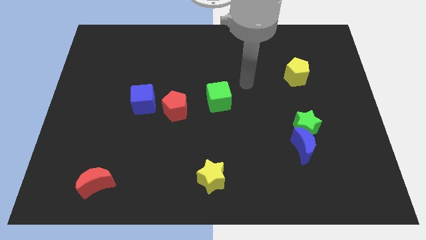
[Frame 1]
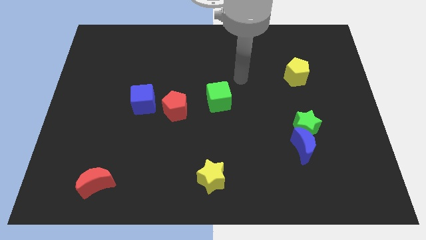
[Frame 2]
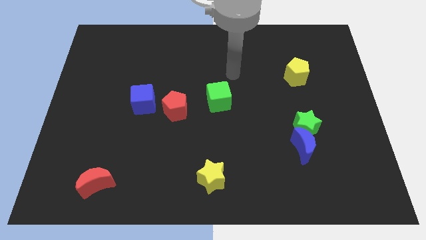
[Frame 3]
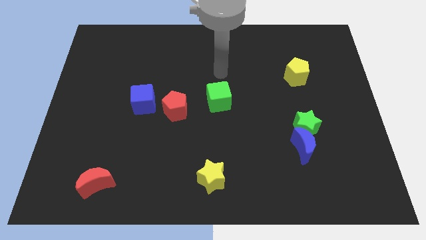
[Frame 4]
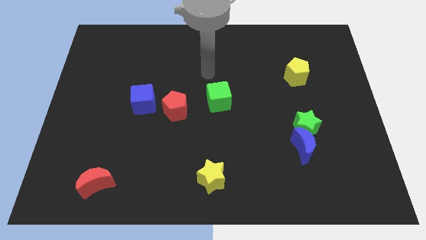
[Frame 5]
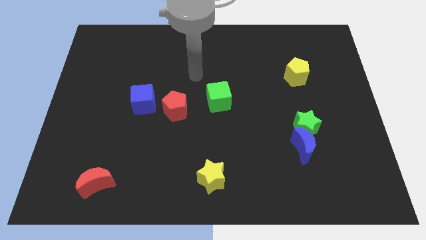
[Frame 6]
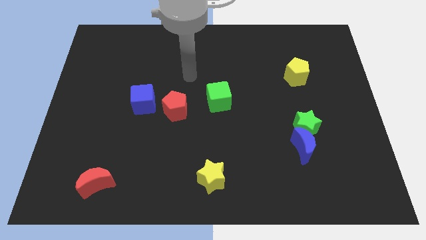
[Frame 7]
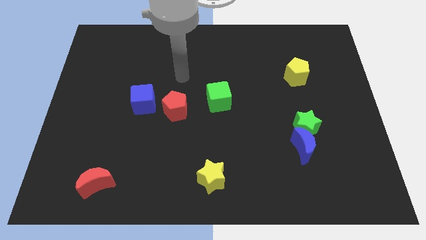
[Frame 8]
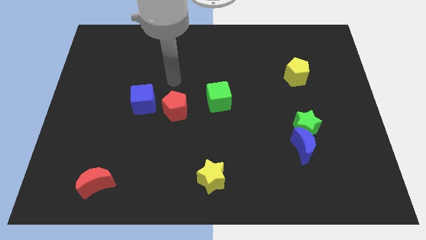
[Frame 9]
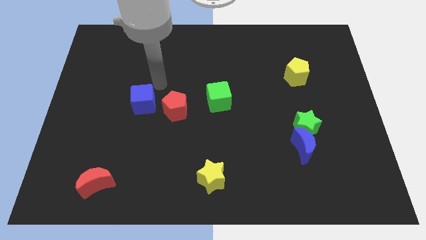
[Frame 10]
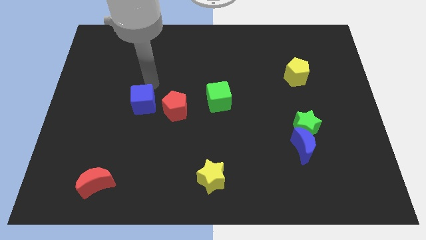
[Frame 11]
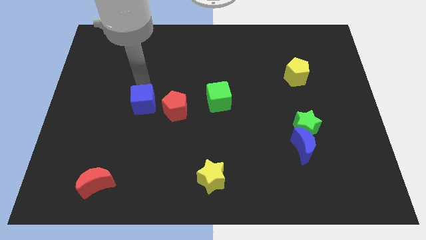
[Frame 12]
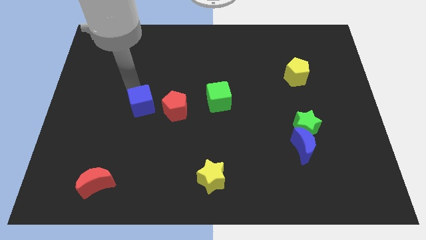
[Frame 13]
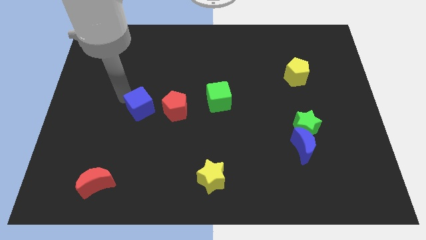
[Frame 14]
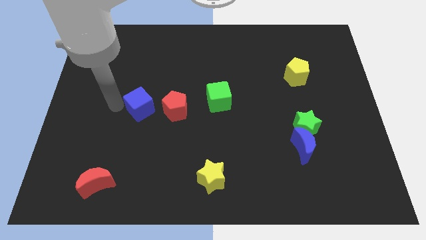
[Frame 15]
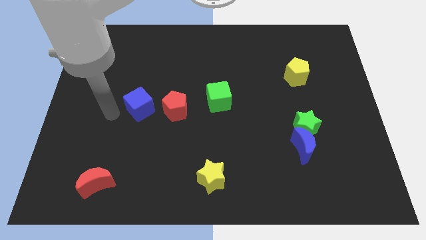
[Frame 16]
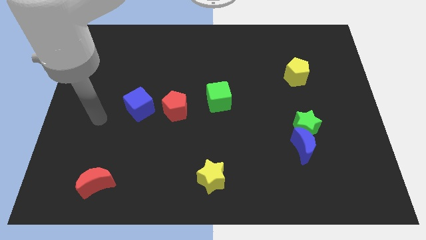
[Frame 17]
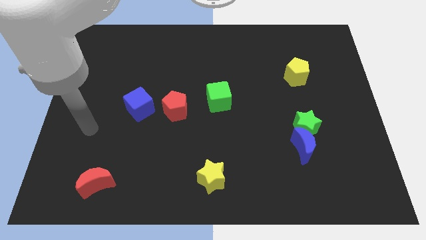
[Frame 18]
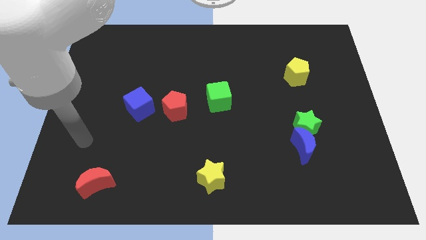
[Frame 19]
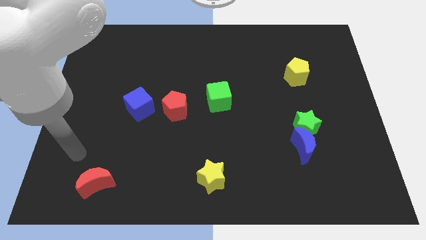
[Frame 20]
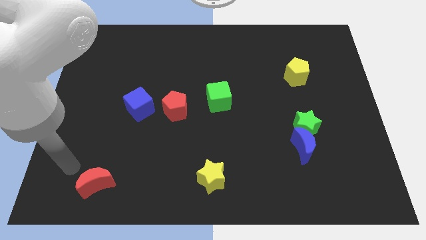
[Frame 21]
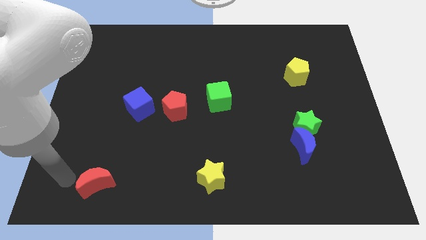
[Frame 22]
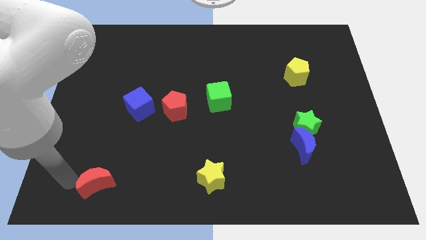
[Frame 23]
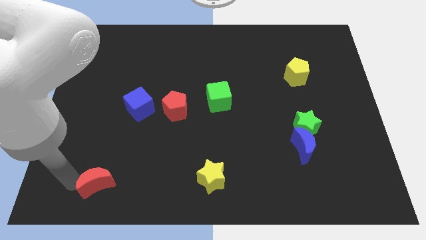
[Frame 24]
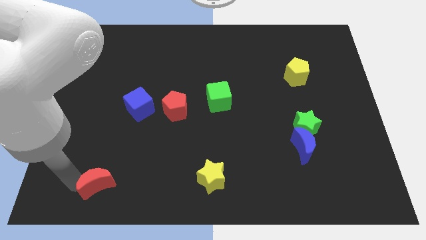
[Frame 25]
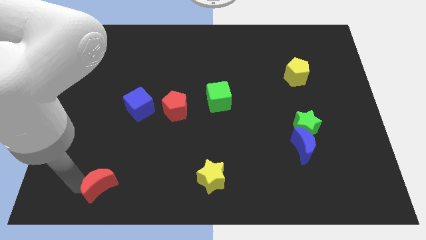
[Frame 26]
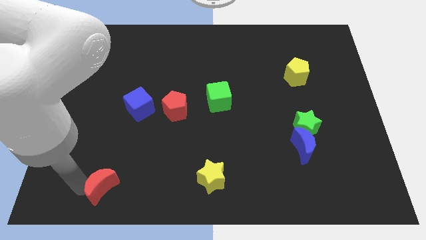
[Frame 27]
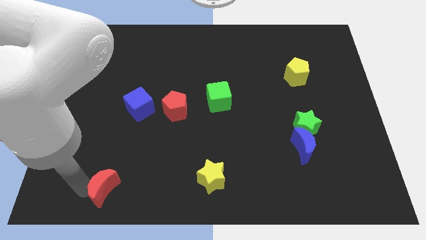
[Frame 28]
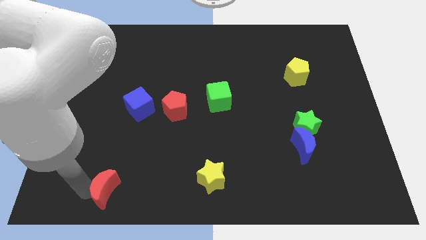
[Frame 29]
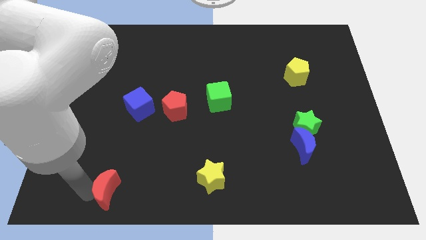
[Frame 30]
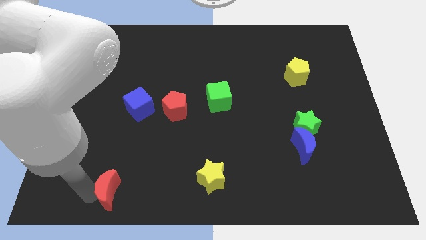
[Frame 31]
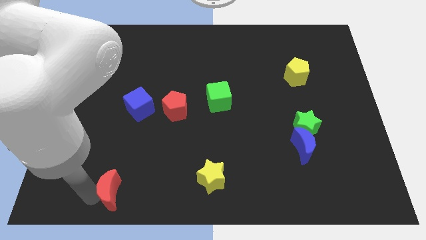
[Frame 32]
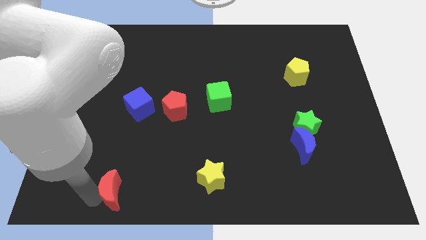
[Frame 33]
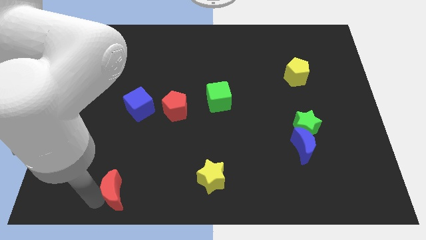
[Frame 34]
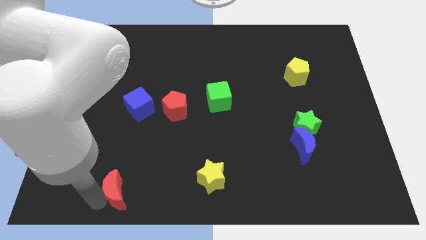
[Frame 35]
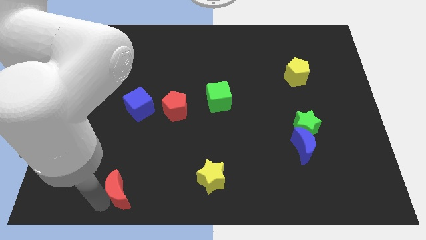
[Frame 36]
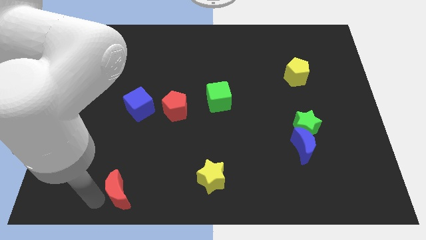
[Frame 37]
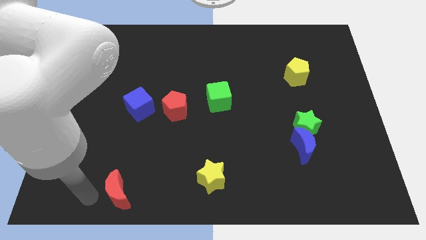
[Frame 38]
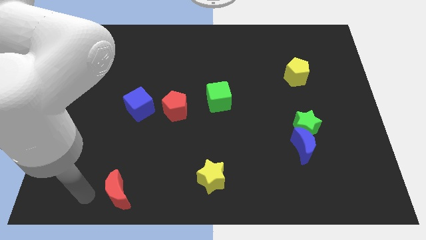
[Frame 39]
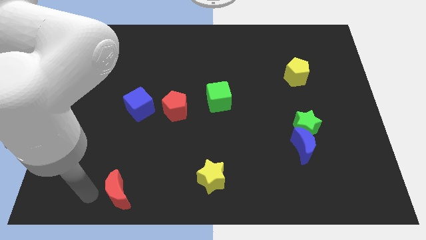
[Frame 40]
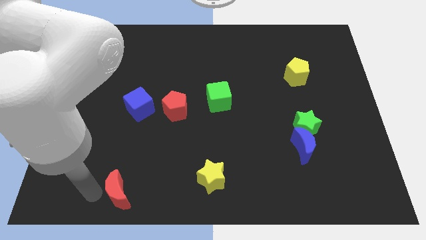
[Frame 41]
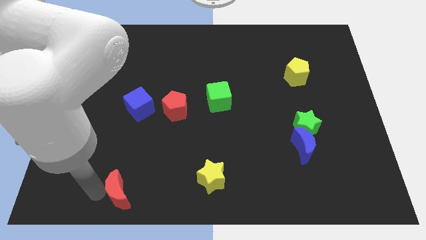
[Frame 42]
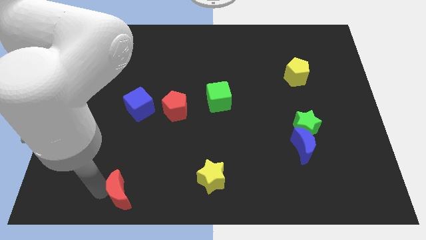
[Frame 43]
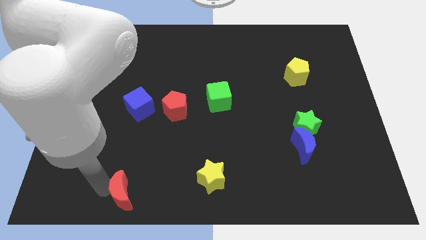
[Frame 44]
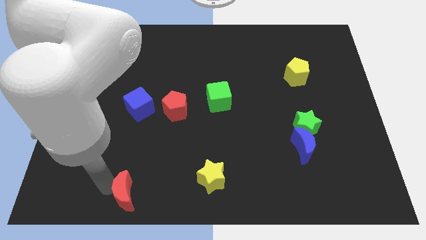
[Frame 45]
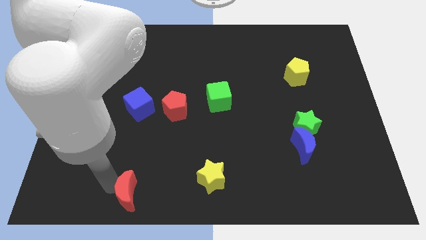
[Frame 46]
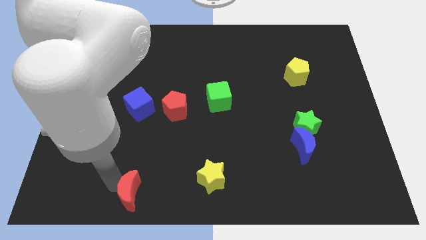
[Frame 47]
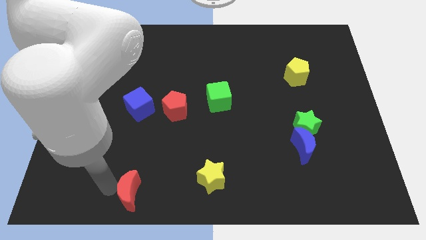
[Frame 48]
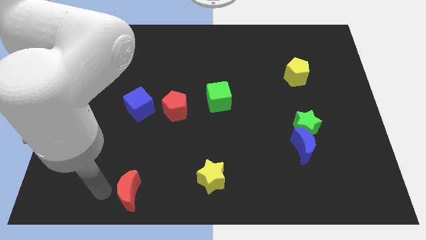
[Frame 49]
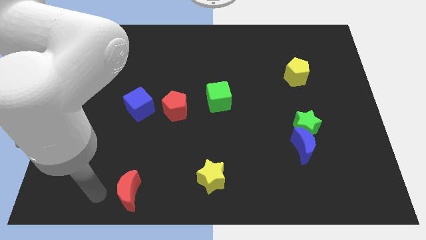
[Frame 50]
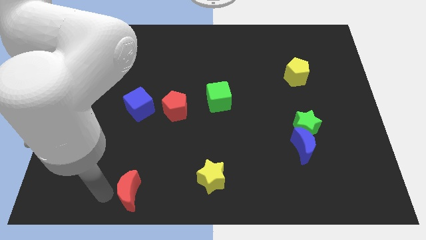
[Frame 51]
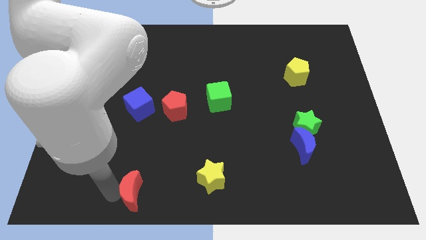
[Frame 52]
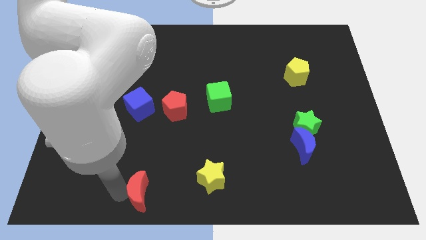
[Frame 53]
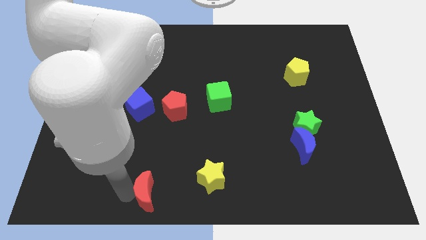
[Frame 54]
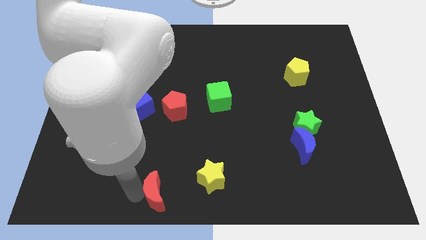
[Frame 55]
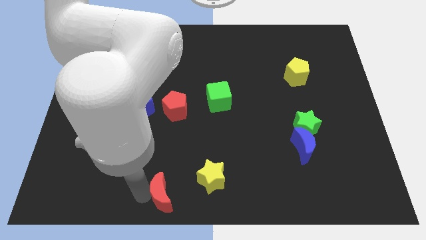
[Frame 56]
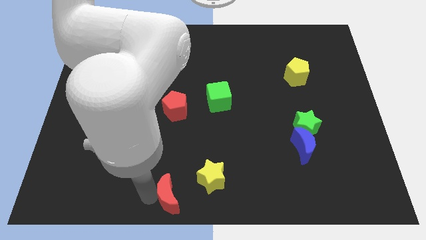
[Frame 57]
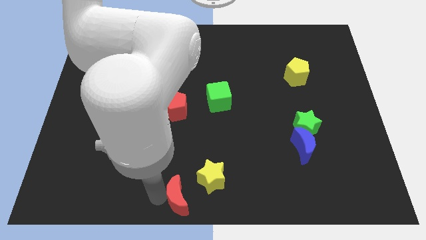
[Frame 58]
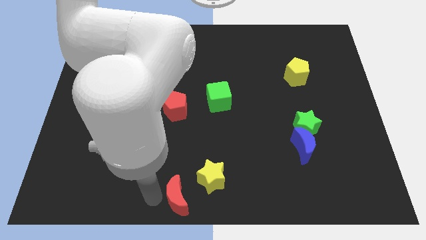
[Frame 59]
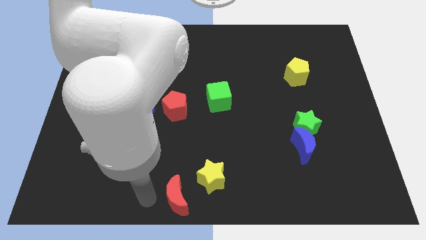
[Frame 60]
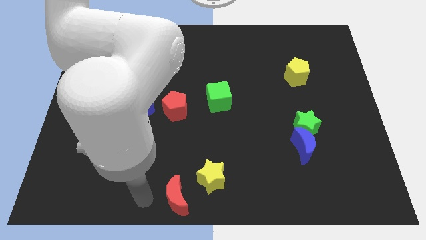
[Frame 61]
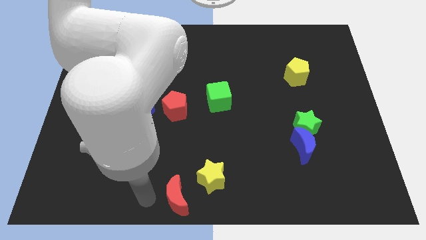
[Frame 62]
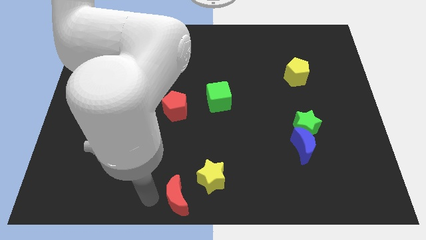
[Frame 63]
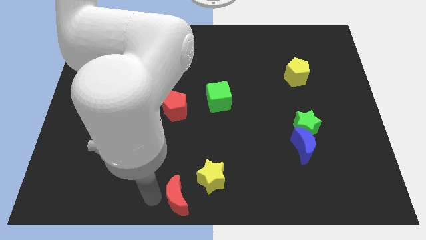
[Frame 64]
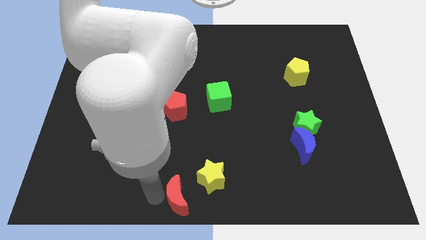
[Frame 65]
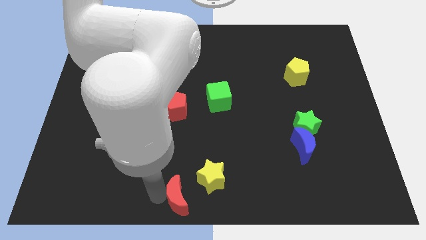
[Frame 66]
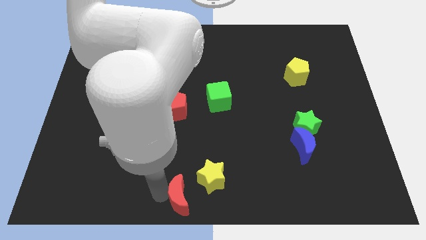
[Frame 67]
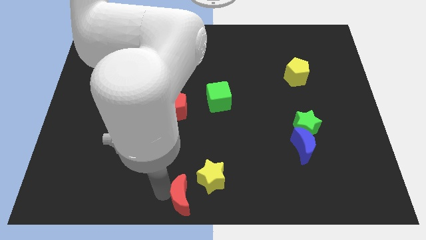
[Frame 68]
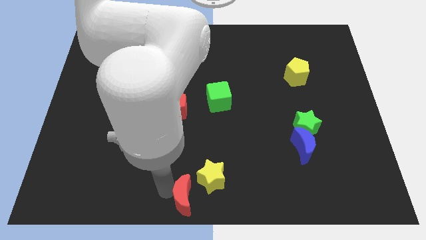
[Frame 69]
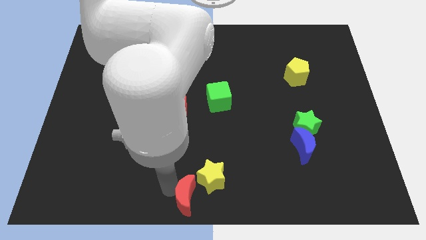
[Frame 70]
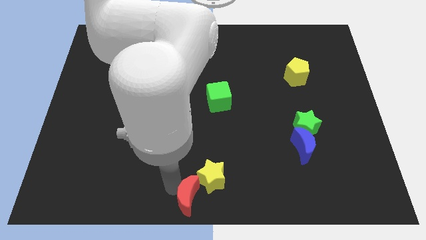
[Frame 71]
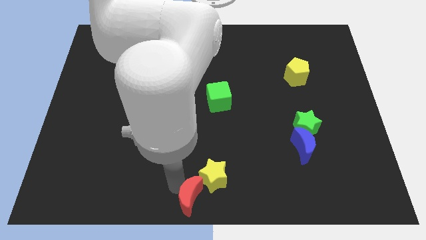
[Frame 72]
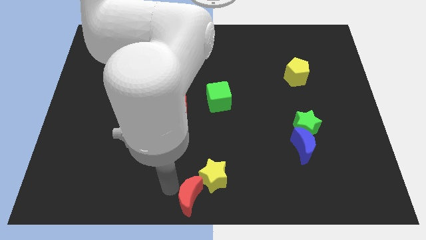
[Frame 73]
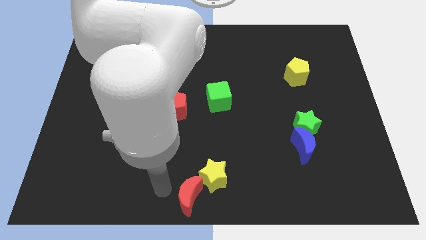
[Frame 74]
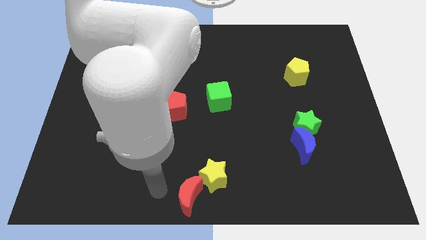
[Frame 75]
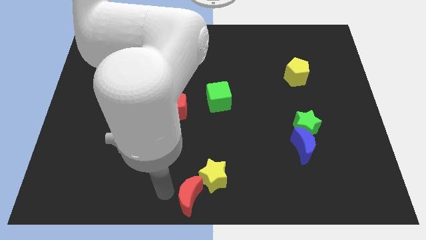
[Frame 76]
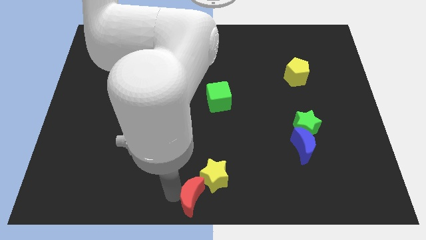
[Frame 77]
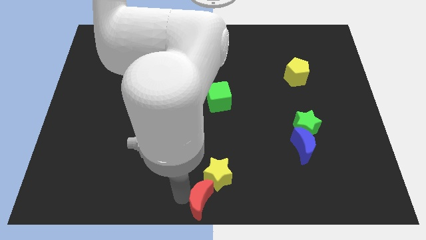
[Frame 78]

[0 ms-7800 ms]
push the red moon to the right

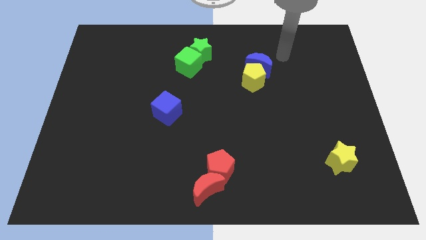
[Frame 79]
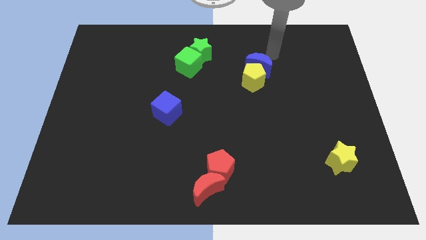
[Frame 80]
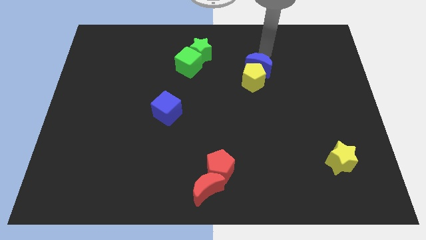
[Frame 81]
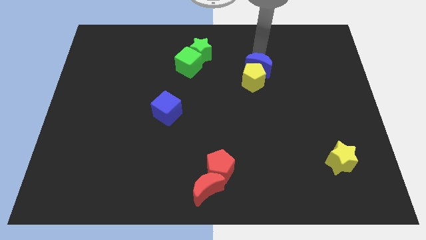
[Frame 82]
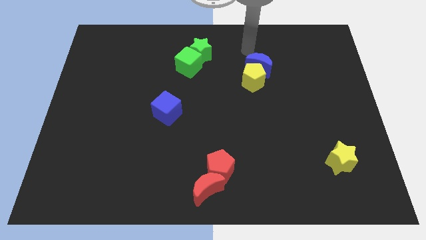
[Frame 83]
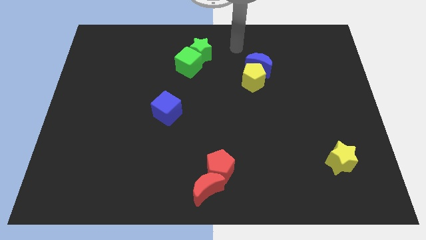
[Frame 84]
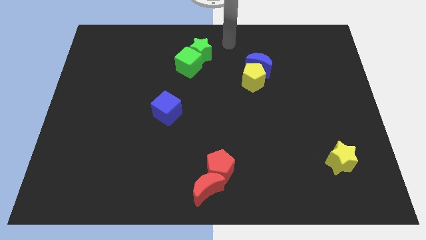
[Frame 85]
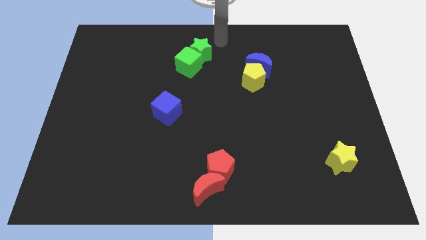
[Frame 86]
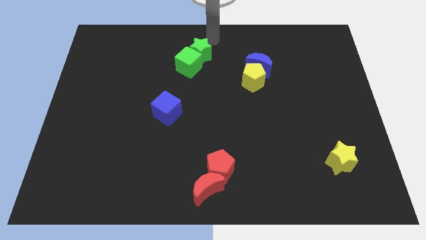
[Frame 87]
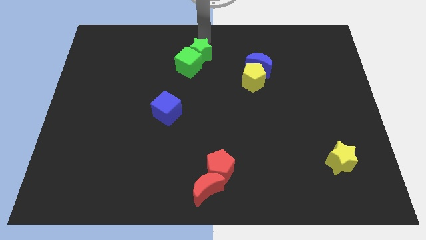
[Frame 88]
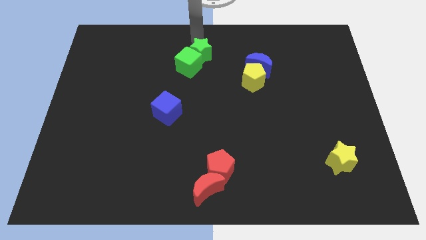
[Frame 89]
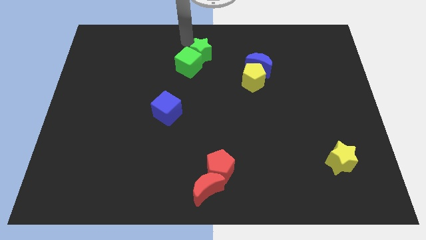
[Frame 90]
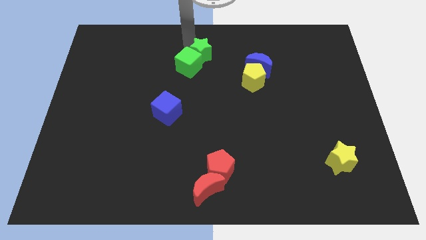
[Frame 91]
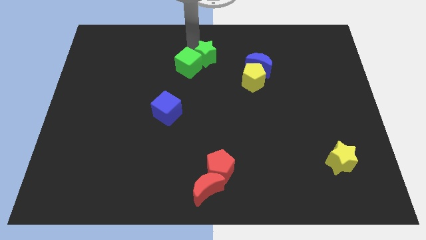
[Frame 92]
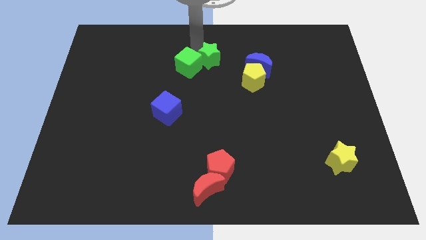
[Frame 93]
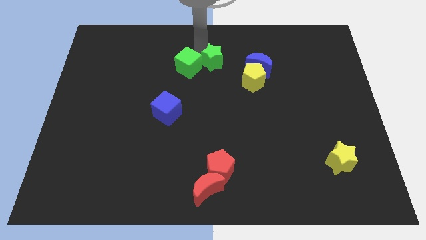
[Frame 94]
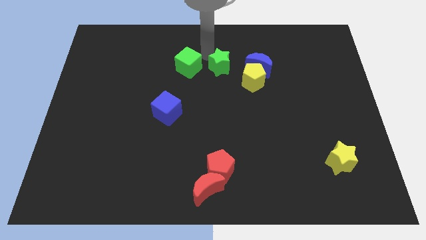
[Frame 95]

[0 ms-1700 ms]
slightly move the green star downwards and then to the right
